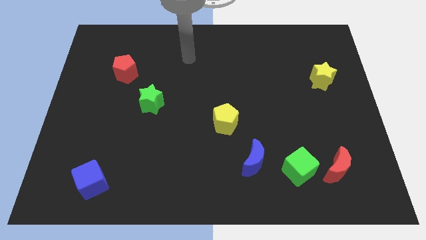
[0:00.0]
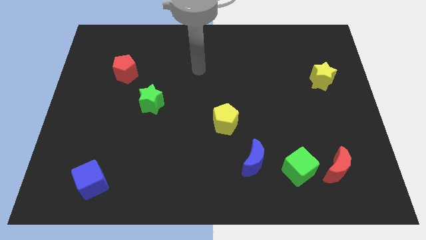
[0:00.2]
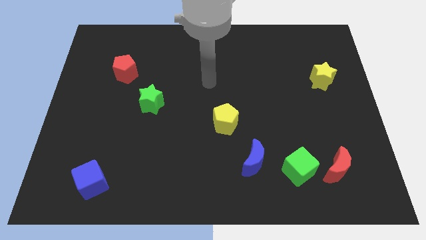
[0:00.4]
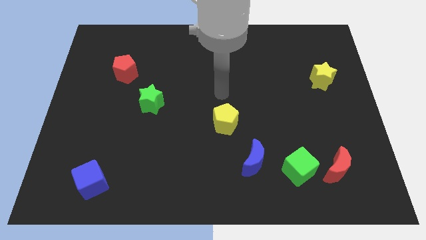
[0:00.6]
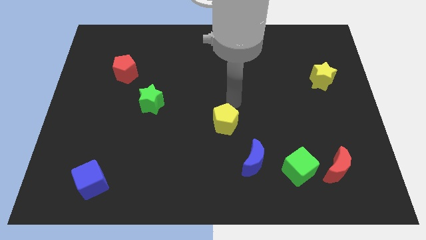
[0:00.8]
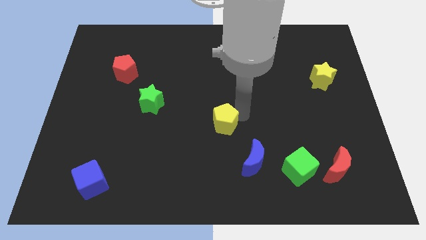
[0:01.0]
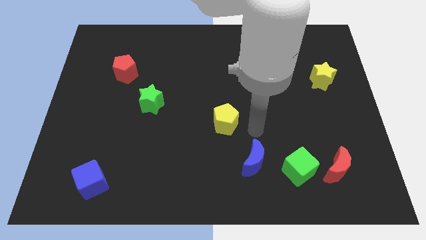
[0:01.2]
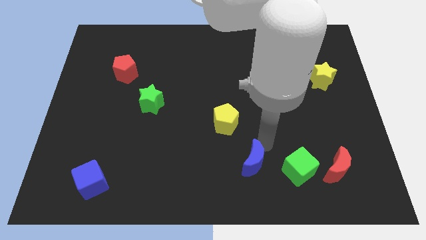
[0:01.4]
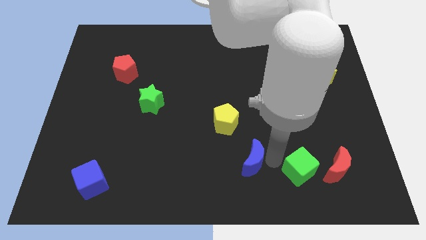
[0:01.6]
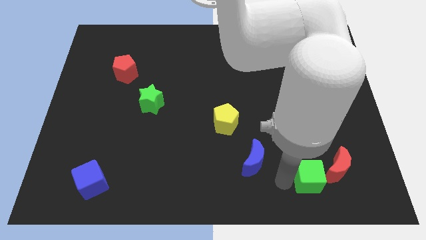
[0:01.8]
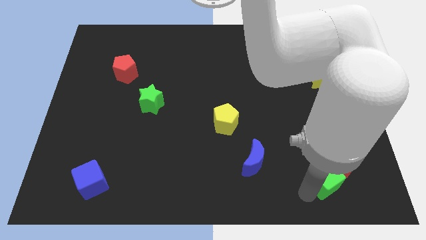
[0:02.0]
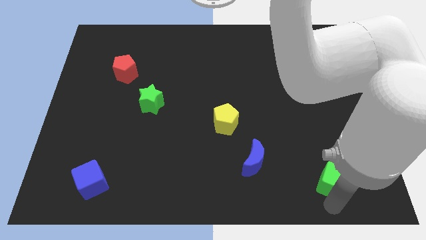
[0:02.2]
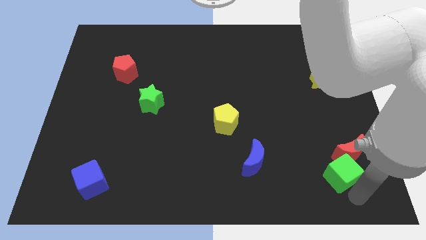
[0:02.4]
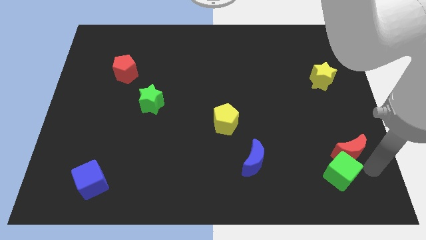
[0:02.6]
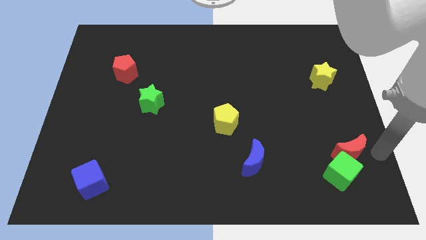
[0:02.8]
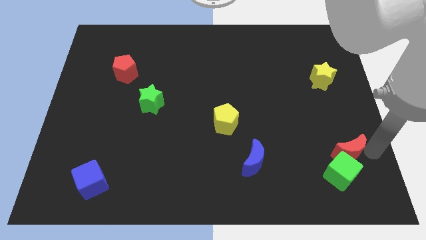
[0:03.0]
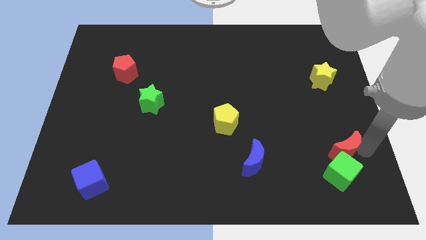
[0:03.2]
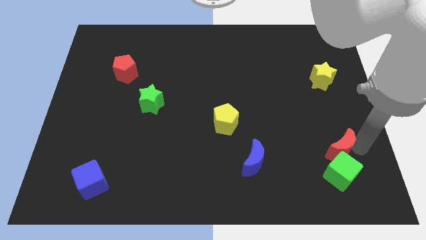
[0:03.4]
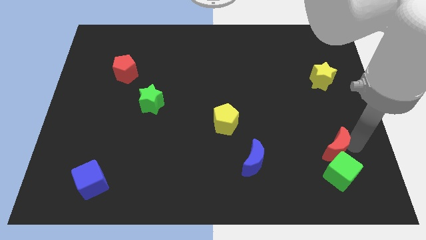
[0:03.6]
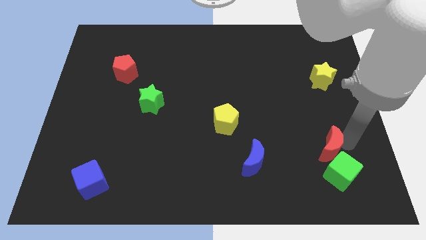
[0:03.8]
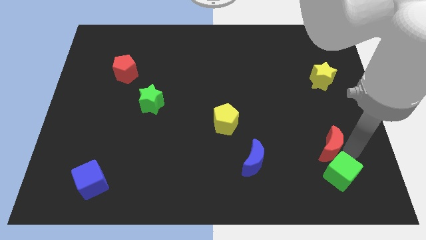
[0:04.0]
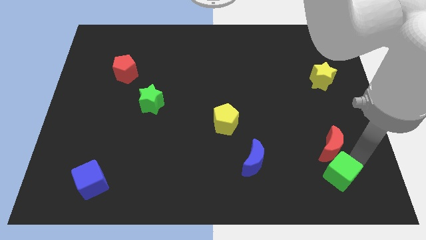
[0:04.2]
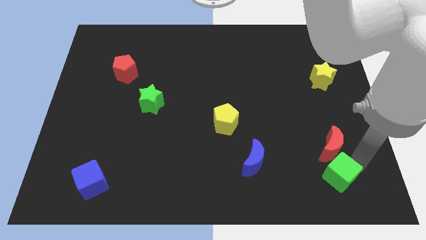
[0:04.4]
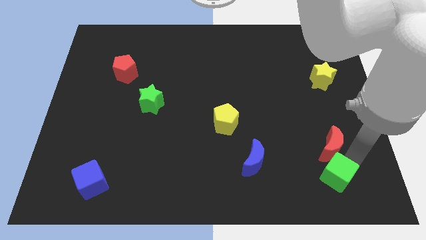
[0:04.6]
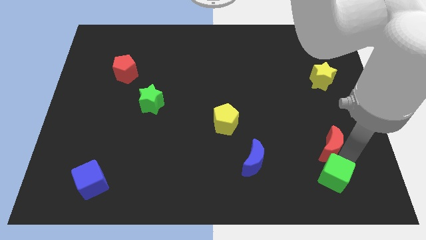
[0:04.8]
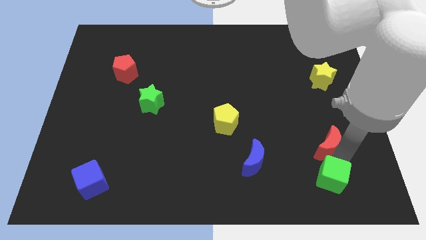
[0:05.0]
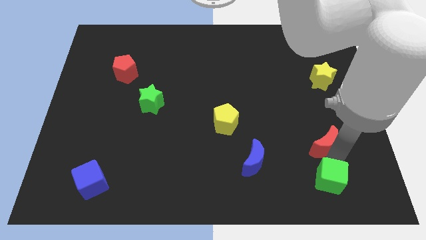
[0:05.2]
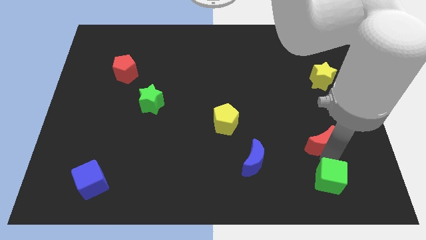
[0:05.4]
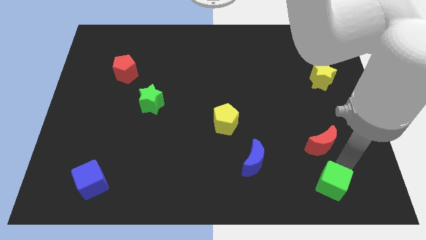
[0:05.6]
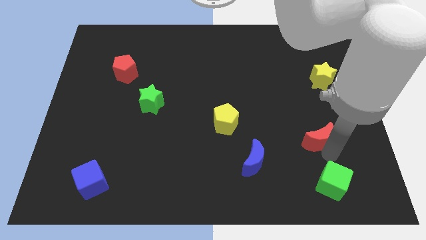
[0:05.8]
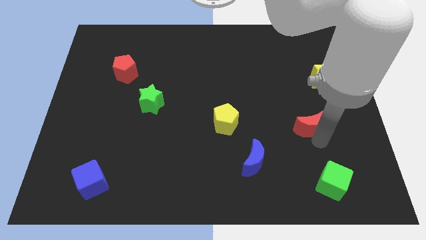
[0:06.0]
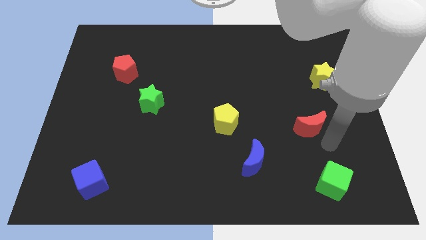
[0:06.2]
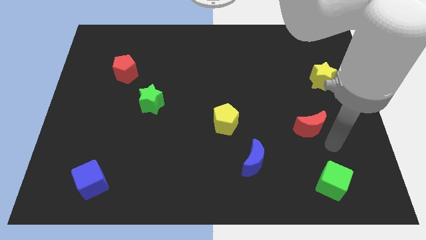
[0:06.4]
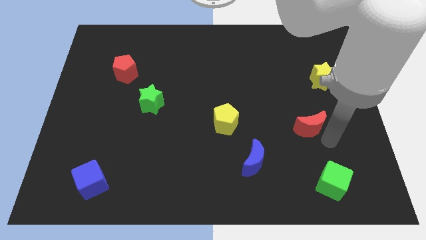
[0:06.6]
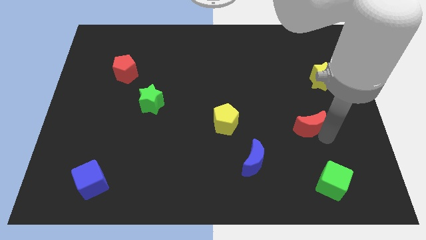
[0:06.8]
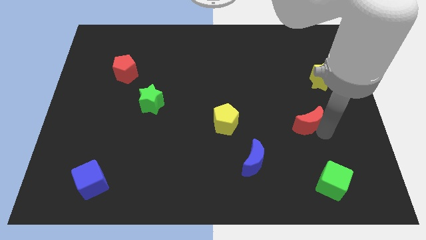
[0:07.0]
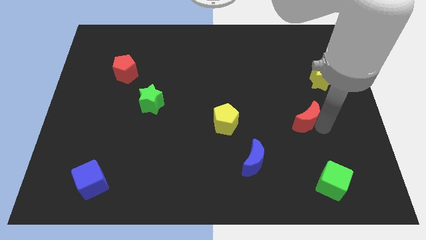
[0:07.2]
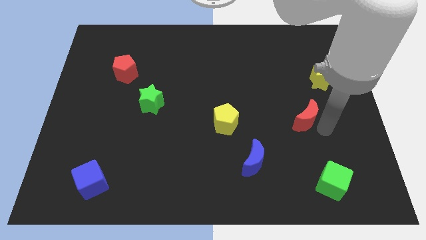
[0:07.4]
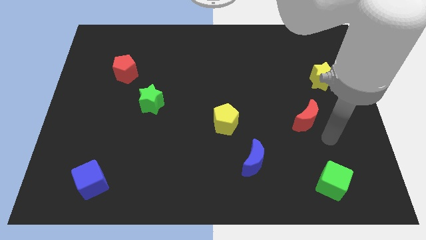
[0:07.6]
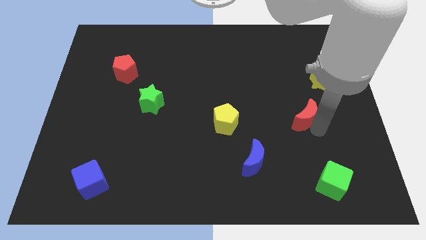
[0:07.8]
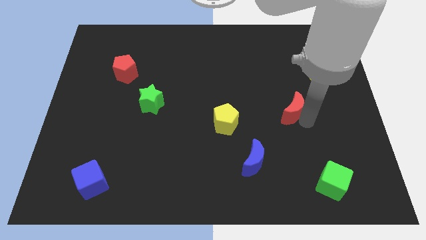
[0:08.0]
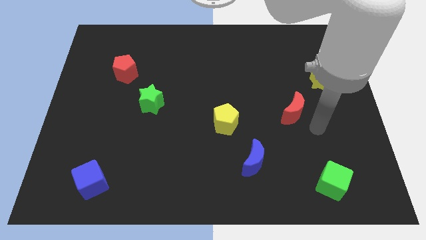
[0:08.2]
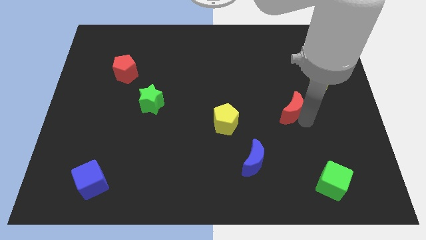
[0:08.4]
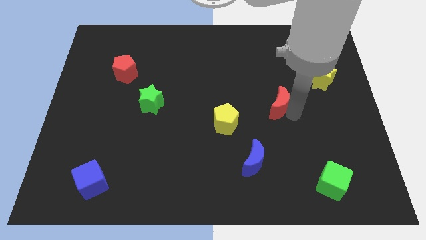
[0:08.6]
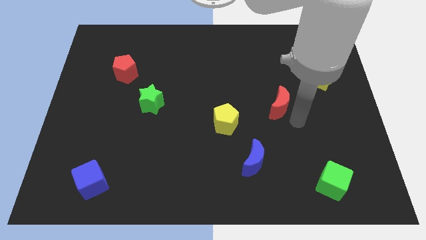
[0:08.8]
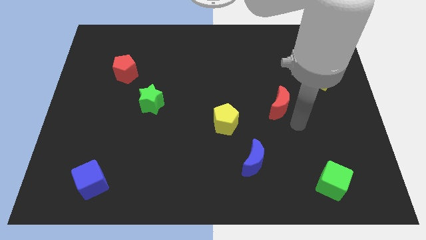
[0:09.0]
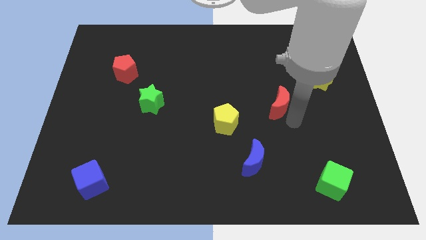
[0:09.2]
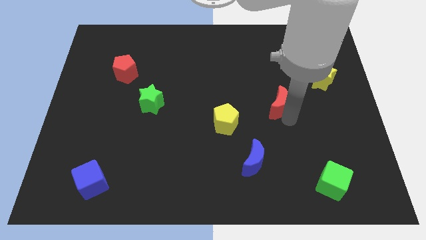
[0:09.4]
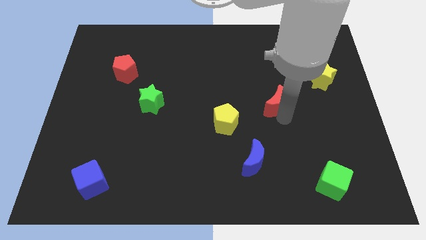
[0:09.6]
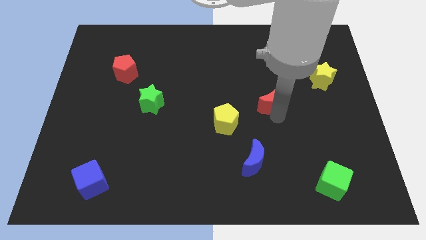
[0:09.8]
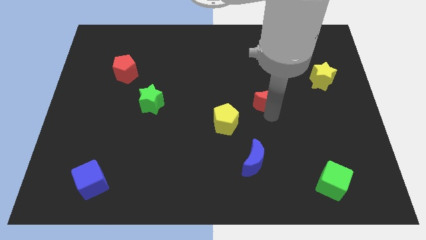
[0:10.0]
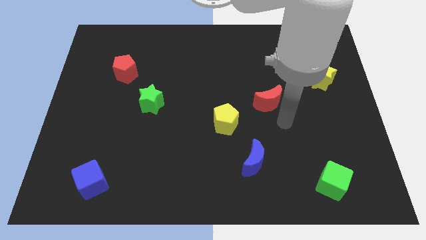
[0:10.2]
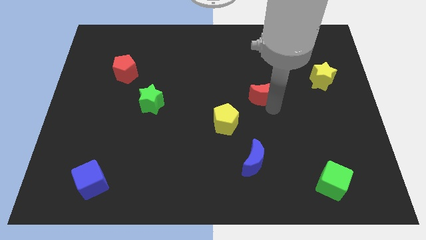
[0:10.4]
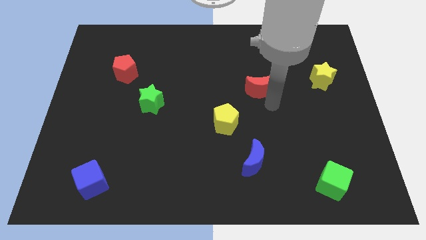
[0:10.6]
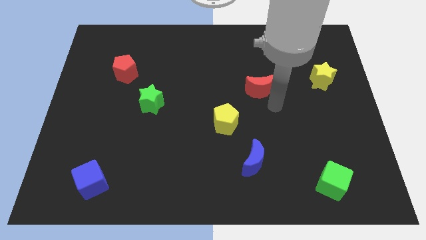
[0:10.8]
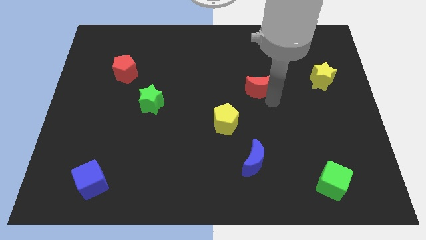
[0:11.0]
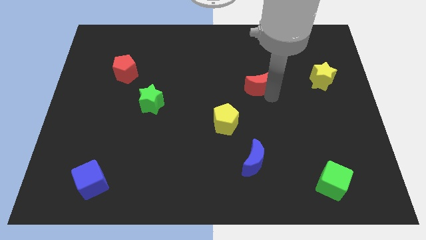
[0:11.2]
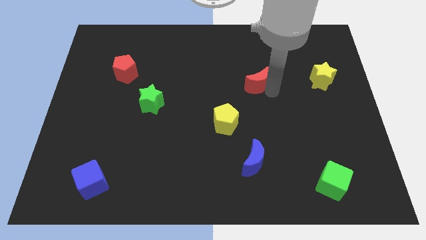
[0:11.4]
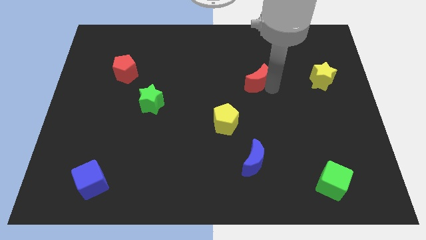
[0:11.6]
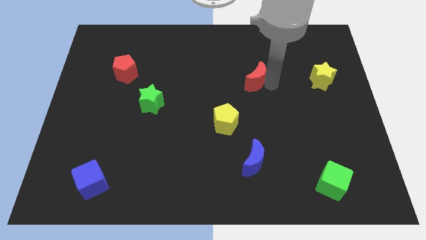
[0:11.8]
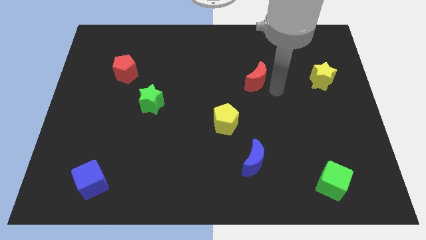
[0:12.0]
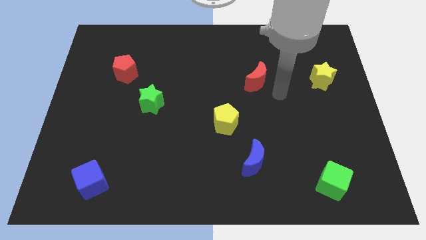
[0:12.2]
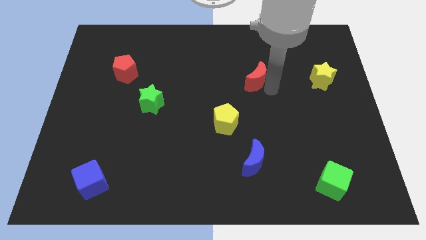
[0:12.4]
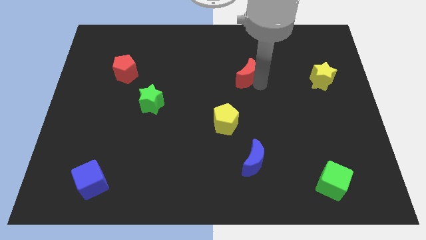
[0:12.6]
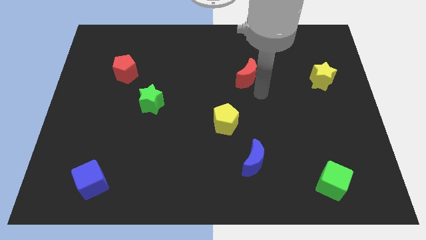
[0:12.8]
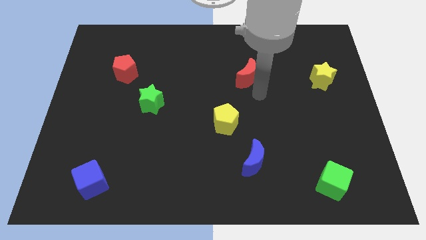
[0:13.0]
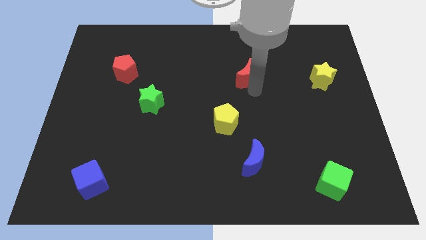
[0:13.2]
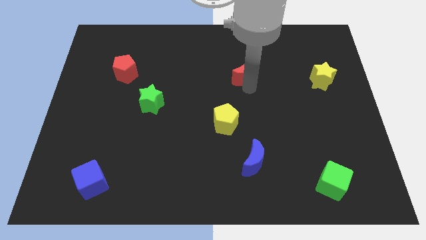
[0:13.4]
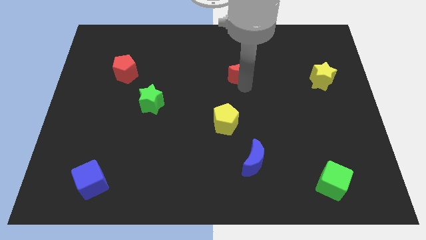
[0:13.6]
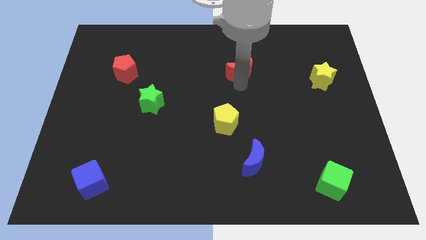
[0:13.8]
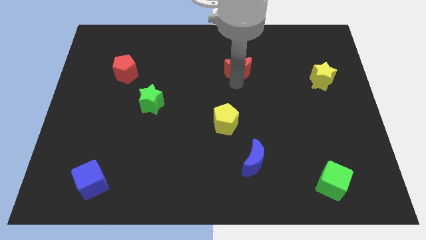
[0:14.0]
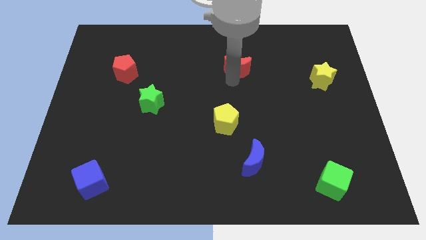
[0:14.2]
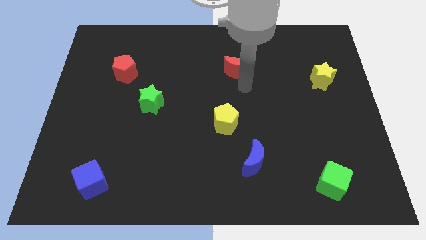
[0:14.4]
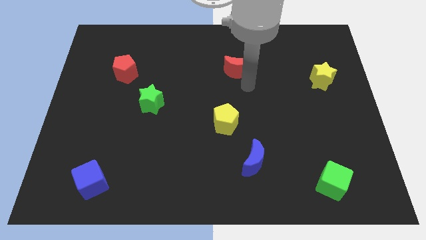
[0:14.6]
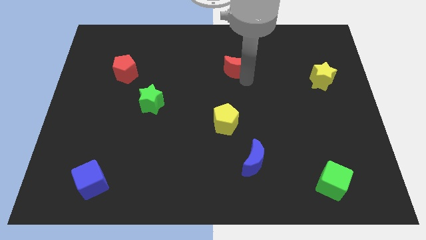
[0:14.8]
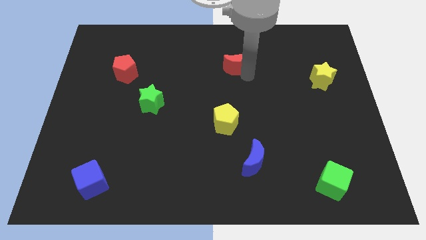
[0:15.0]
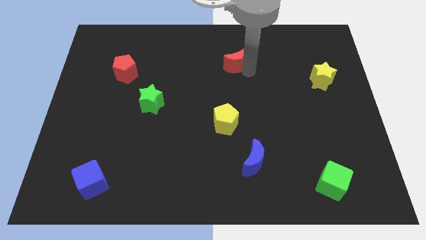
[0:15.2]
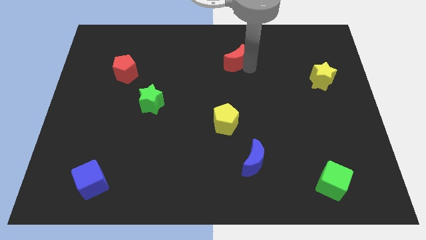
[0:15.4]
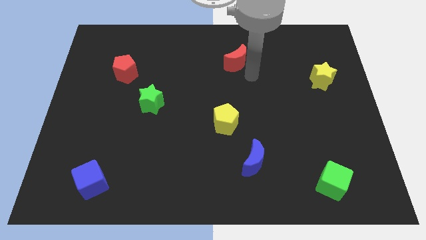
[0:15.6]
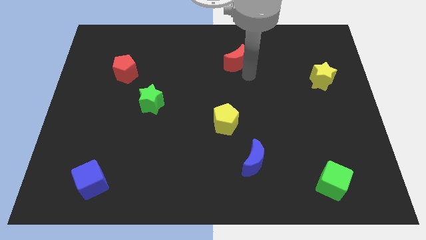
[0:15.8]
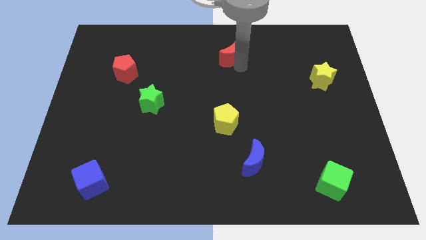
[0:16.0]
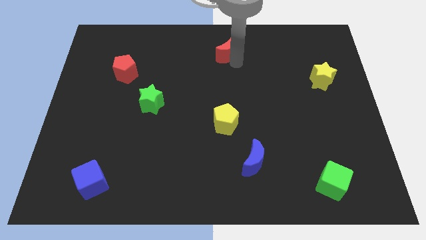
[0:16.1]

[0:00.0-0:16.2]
put the red moon to the top
